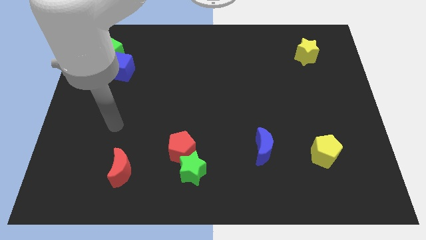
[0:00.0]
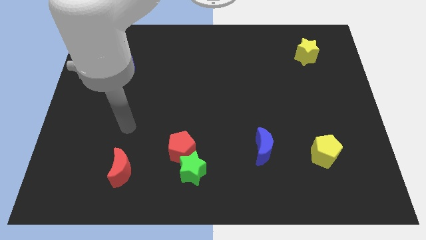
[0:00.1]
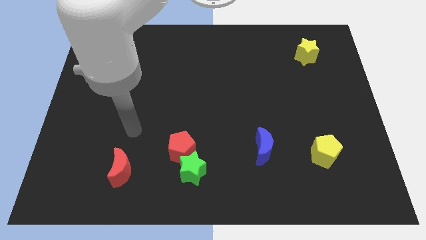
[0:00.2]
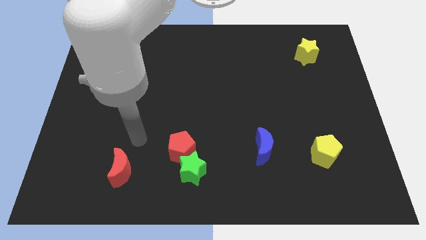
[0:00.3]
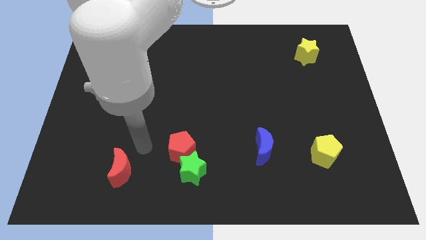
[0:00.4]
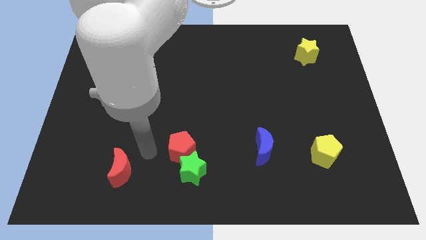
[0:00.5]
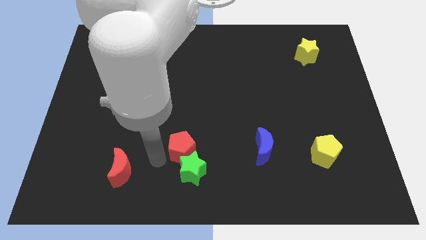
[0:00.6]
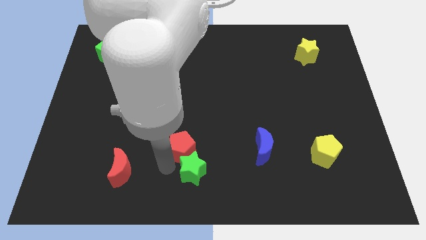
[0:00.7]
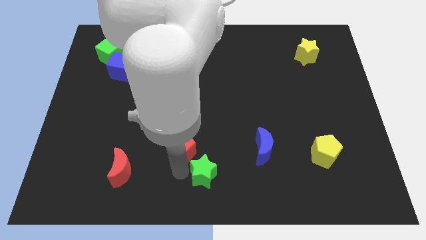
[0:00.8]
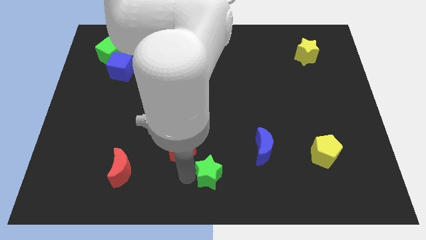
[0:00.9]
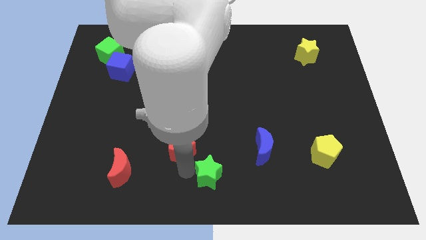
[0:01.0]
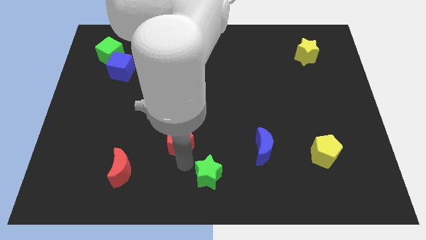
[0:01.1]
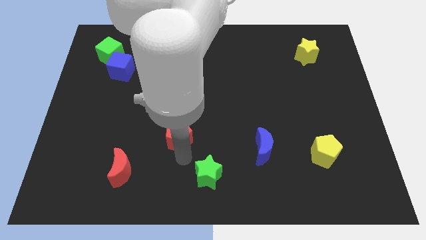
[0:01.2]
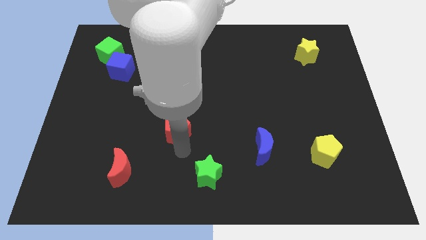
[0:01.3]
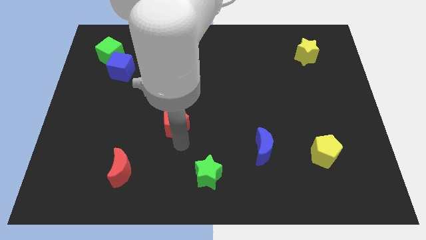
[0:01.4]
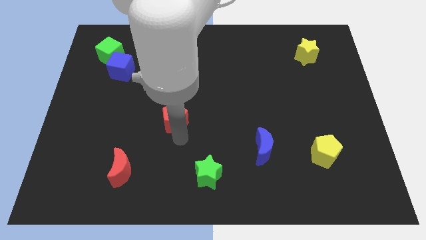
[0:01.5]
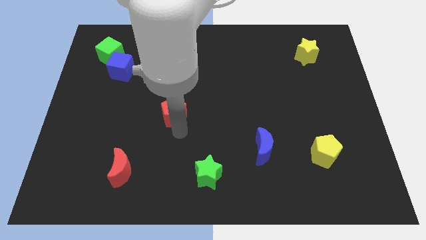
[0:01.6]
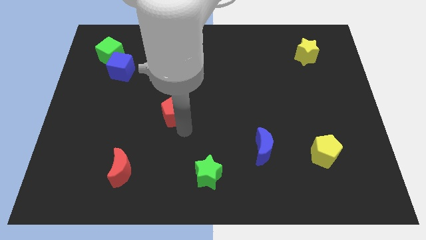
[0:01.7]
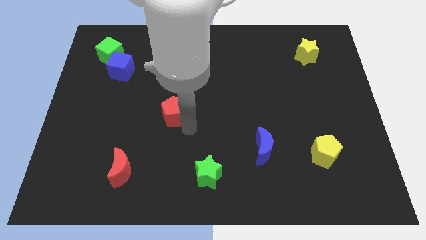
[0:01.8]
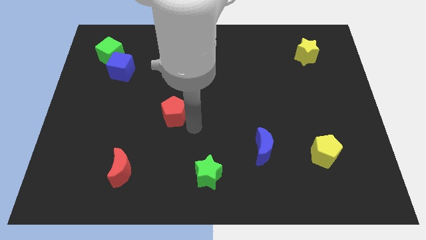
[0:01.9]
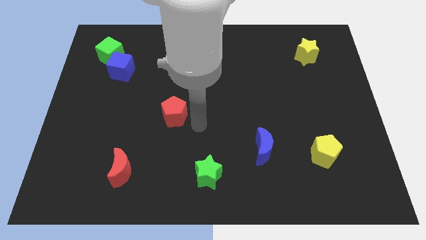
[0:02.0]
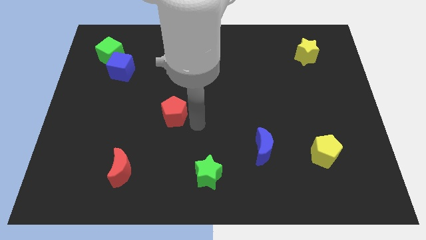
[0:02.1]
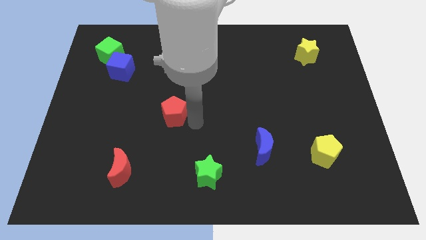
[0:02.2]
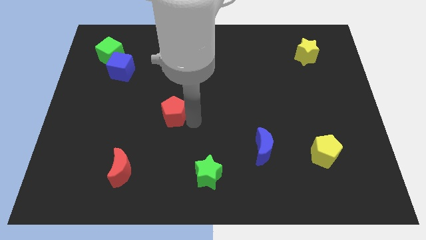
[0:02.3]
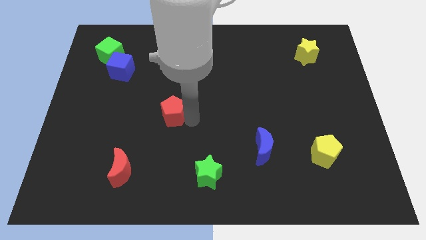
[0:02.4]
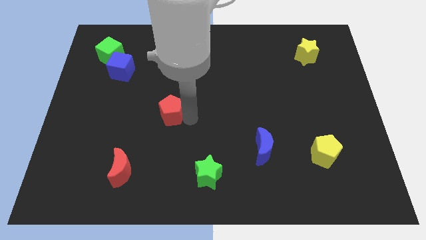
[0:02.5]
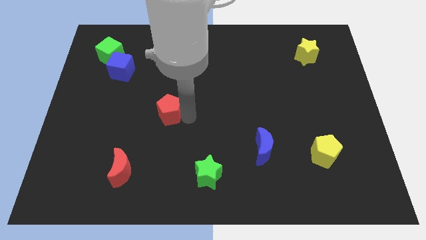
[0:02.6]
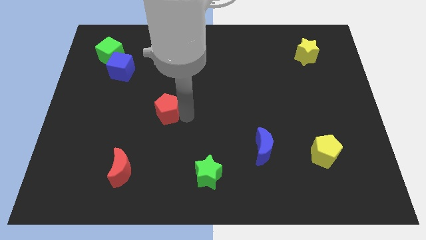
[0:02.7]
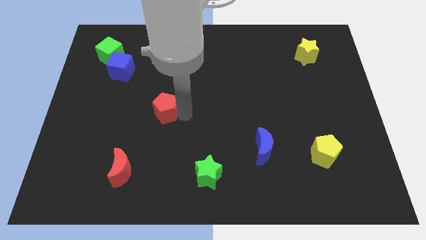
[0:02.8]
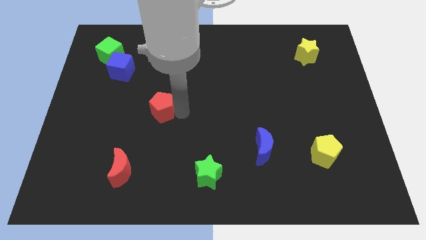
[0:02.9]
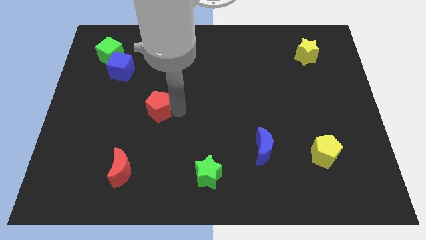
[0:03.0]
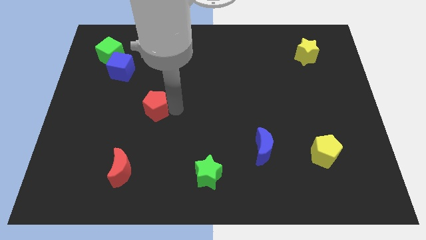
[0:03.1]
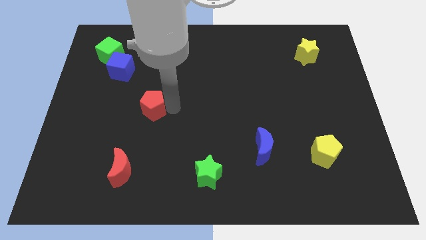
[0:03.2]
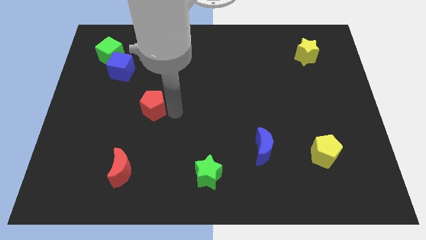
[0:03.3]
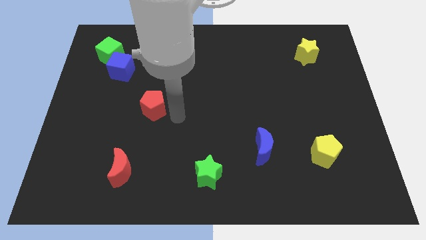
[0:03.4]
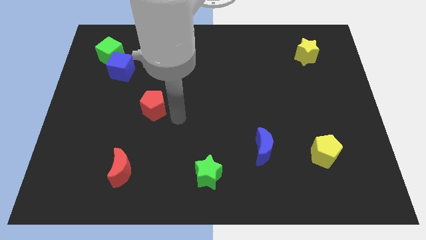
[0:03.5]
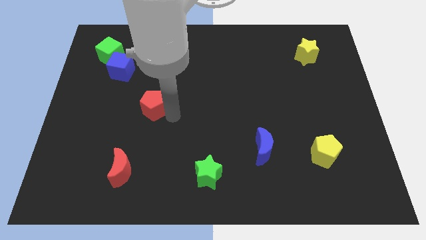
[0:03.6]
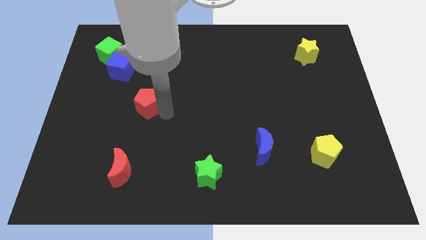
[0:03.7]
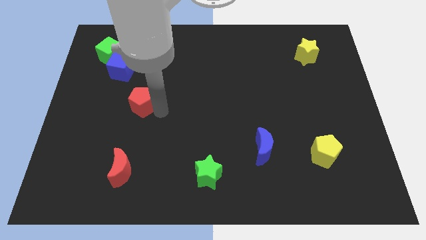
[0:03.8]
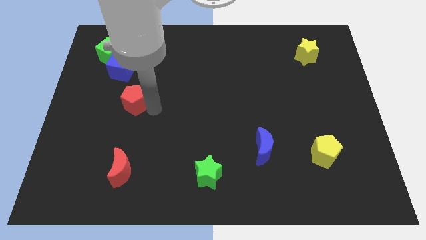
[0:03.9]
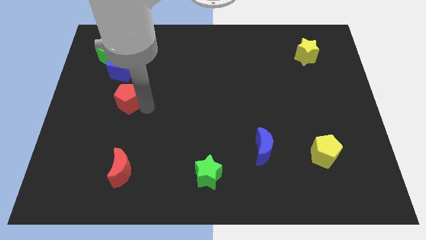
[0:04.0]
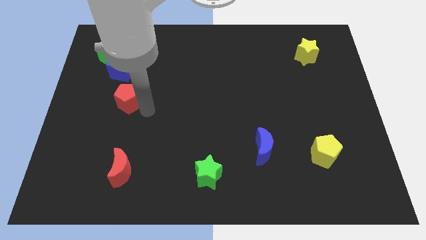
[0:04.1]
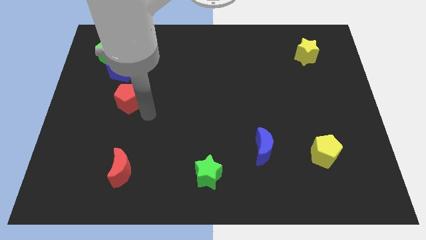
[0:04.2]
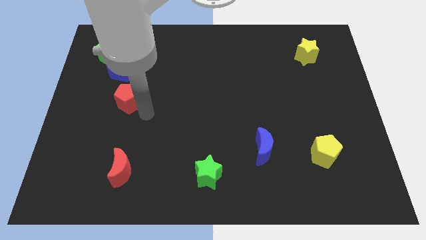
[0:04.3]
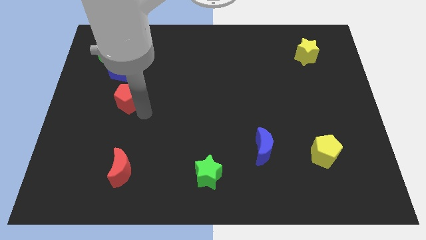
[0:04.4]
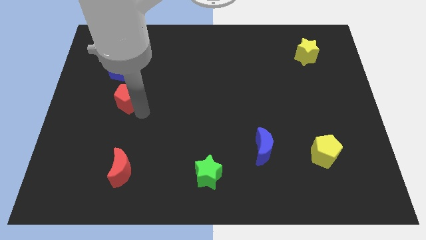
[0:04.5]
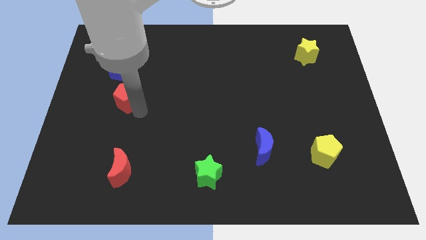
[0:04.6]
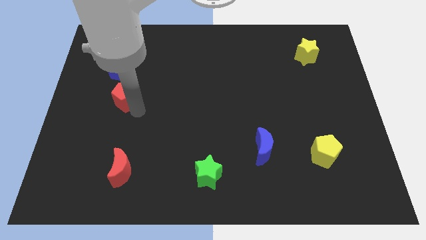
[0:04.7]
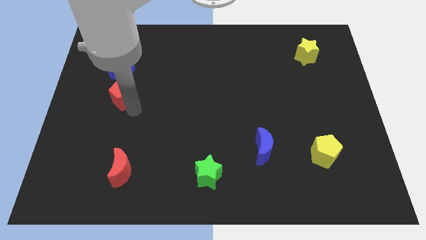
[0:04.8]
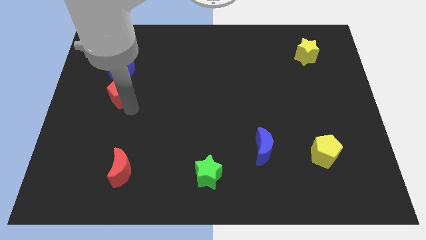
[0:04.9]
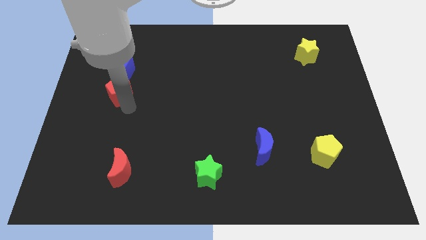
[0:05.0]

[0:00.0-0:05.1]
move the red pentagon to the bottom side of the green cube

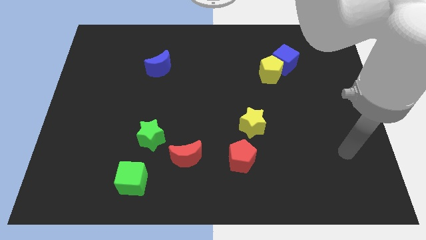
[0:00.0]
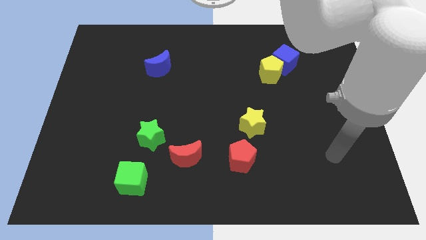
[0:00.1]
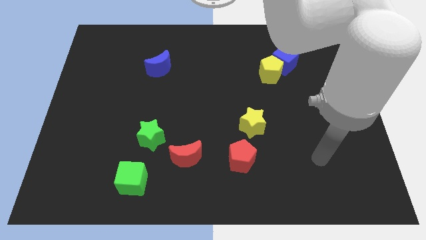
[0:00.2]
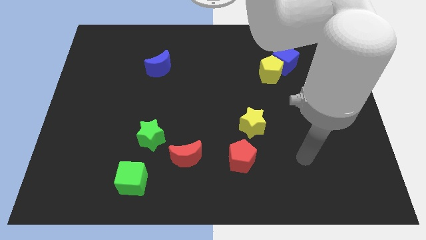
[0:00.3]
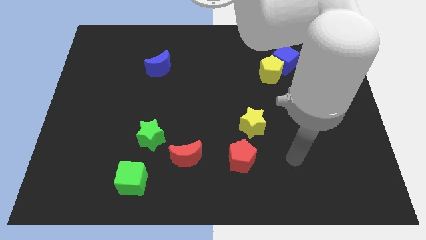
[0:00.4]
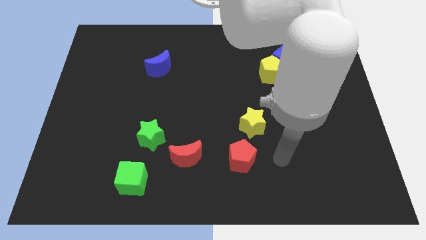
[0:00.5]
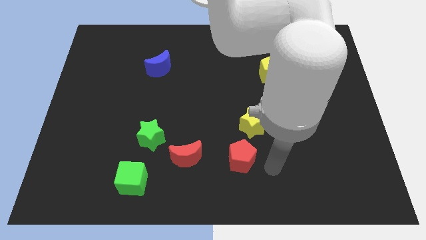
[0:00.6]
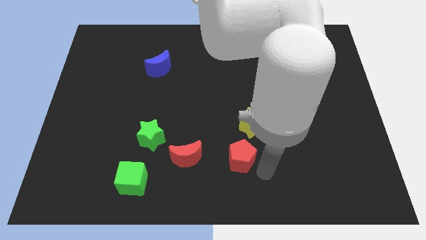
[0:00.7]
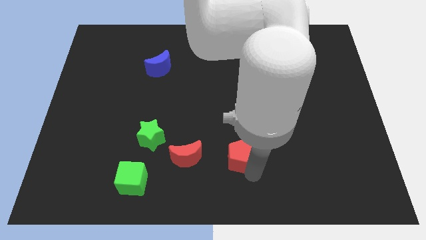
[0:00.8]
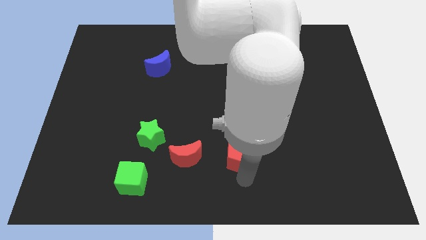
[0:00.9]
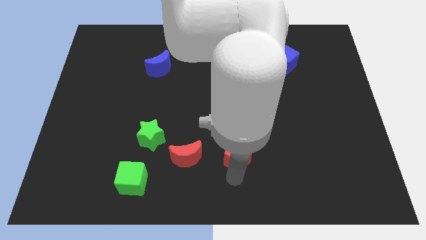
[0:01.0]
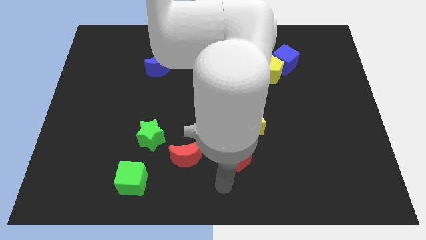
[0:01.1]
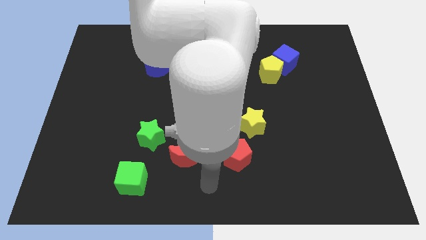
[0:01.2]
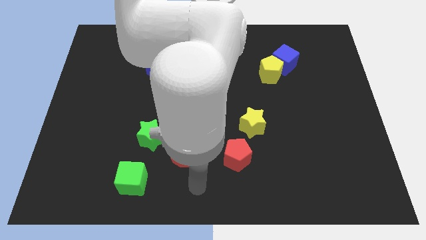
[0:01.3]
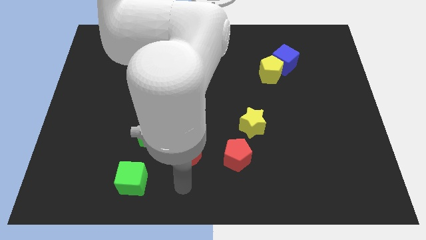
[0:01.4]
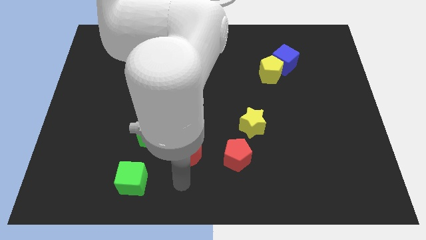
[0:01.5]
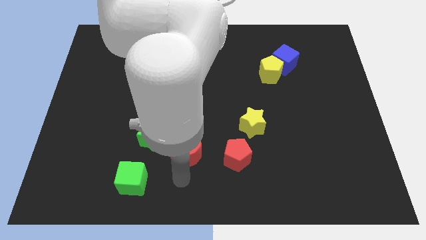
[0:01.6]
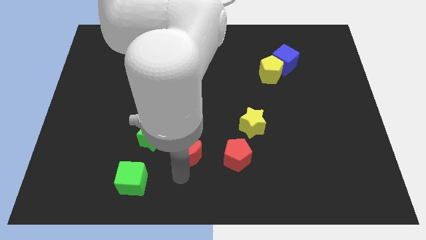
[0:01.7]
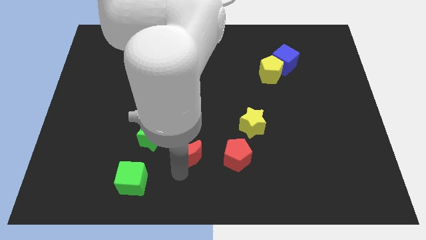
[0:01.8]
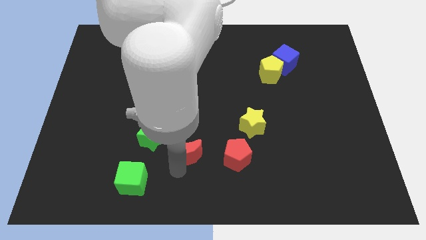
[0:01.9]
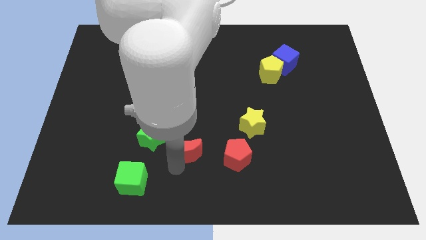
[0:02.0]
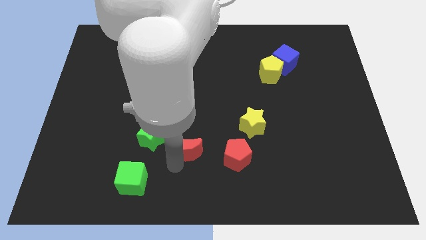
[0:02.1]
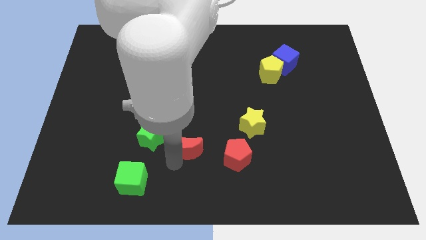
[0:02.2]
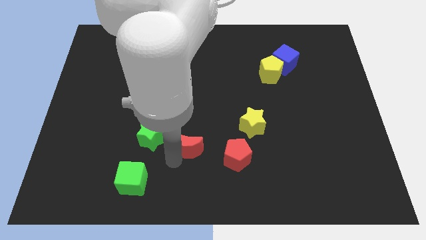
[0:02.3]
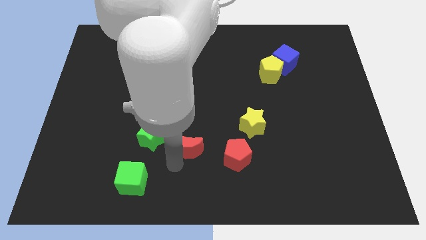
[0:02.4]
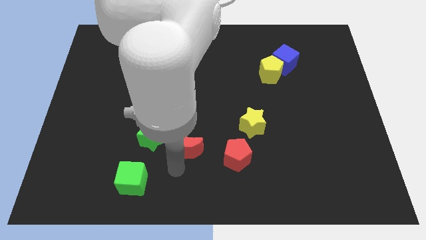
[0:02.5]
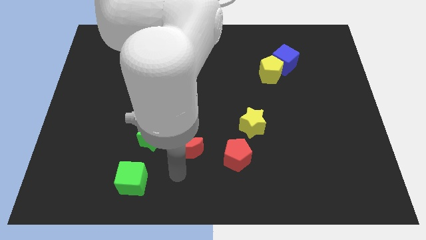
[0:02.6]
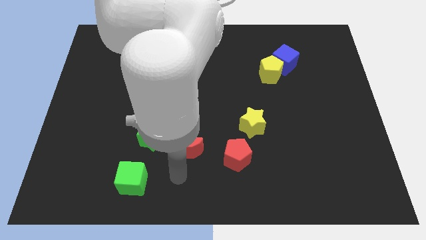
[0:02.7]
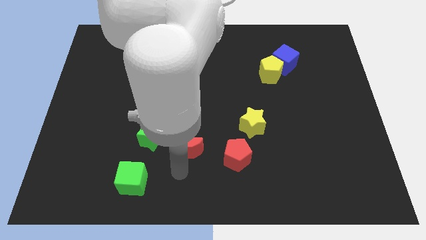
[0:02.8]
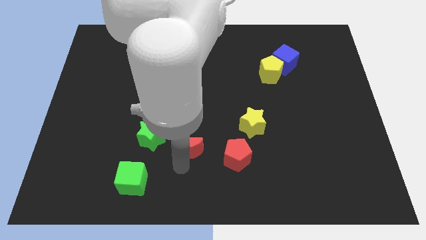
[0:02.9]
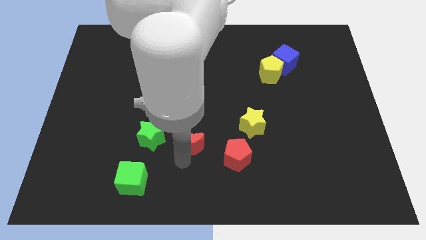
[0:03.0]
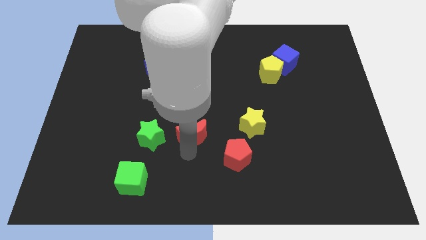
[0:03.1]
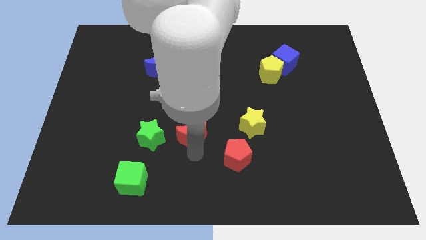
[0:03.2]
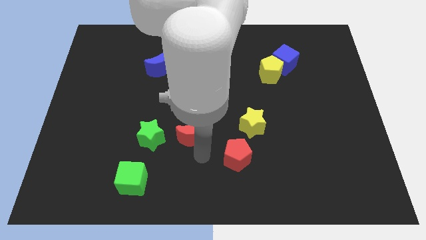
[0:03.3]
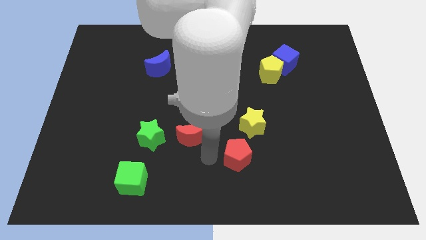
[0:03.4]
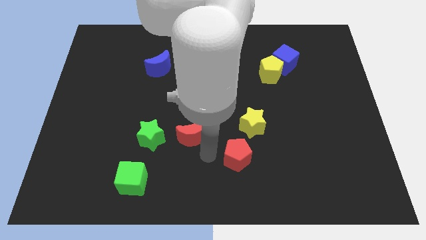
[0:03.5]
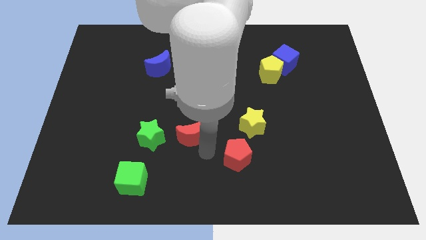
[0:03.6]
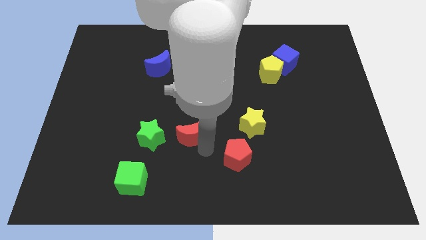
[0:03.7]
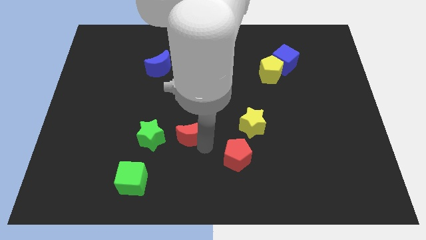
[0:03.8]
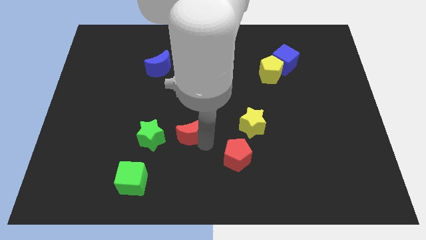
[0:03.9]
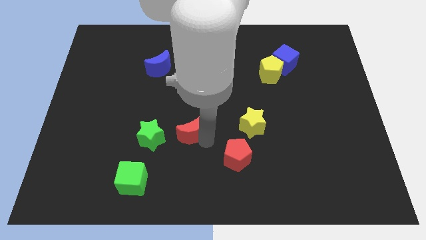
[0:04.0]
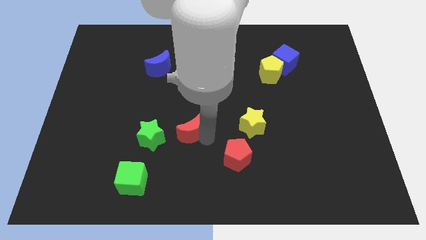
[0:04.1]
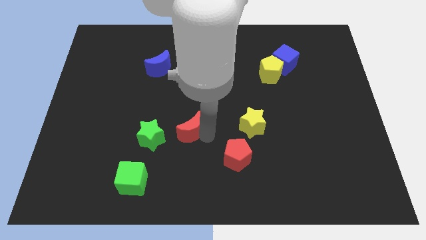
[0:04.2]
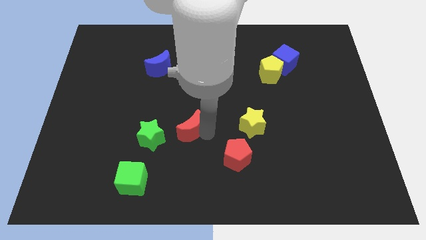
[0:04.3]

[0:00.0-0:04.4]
slide the red moon to the top right side of the green star
